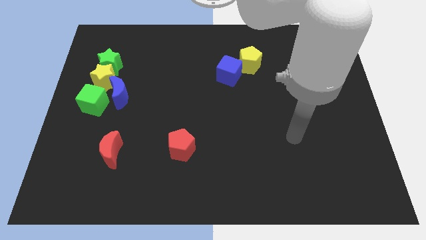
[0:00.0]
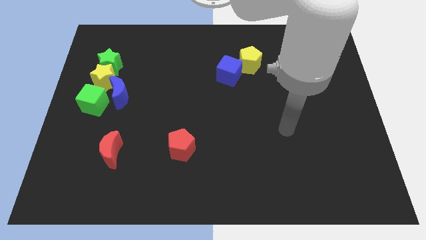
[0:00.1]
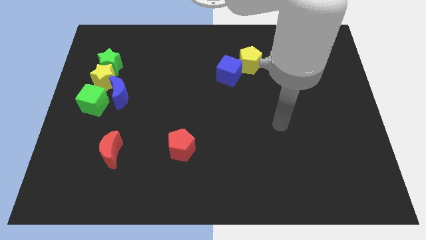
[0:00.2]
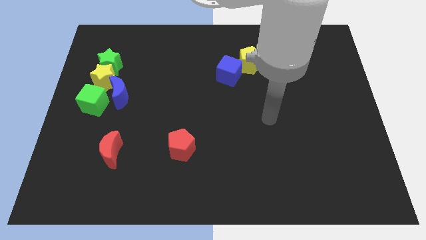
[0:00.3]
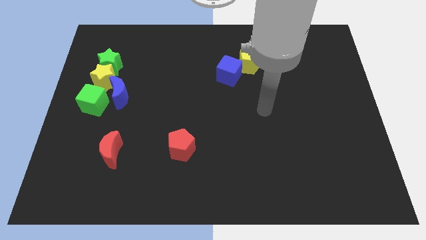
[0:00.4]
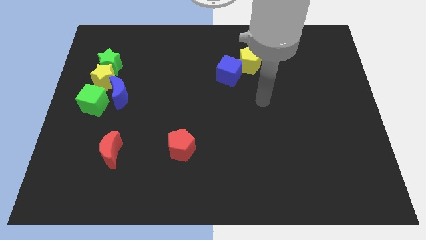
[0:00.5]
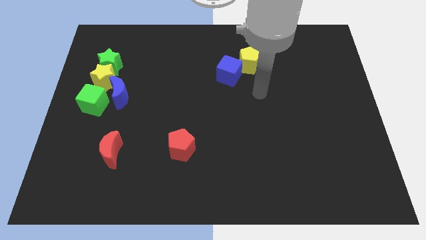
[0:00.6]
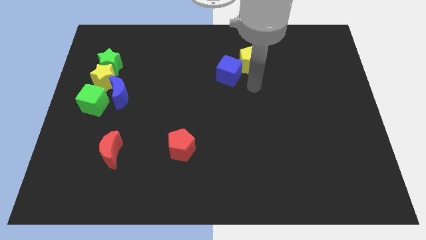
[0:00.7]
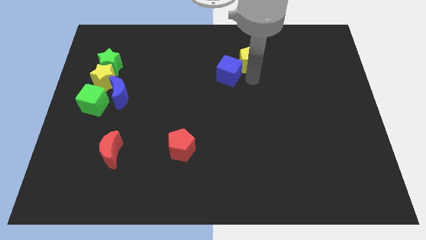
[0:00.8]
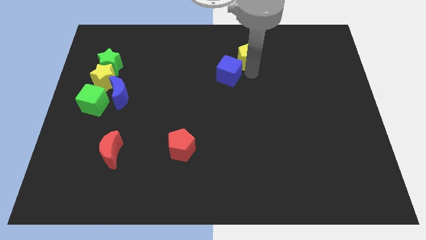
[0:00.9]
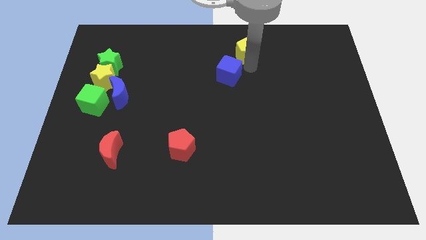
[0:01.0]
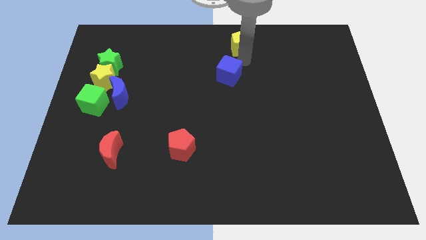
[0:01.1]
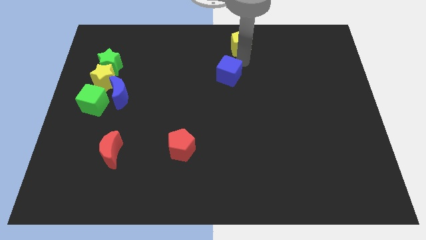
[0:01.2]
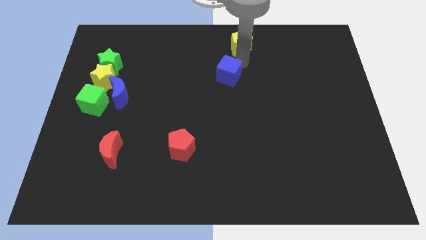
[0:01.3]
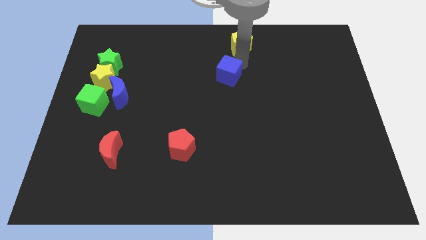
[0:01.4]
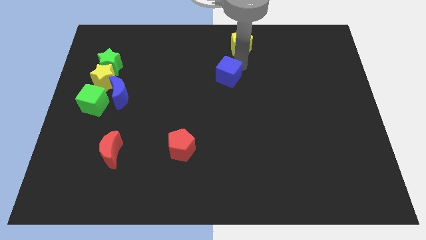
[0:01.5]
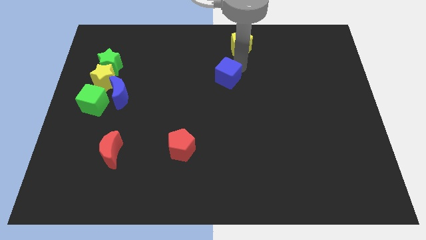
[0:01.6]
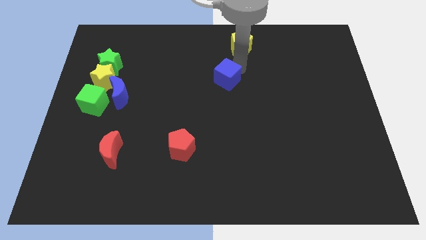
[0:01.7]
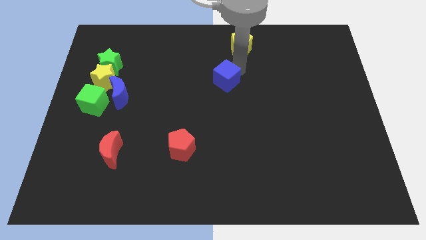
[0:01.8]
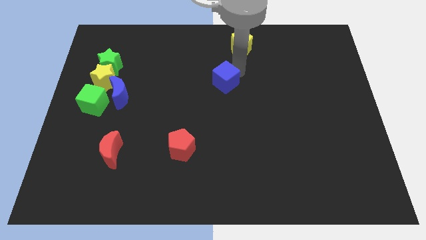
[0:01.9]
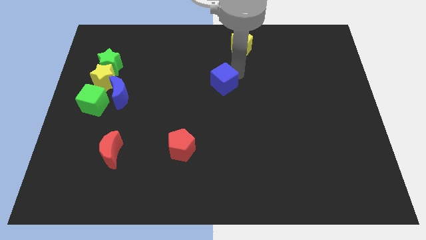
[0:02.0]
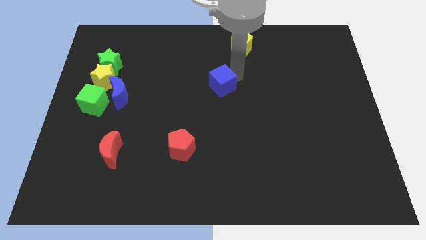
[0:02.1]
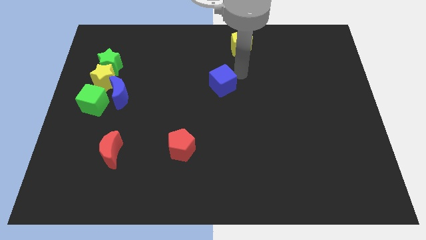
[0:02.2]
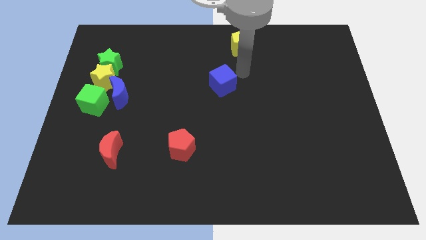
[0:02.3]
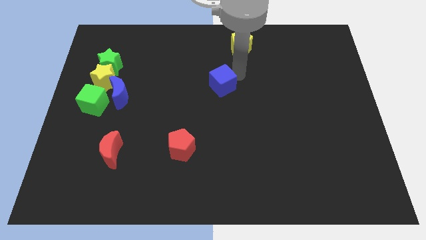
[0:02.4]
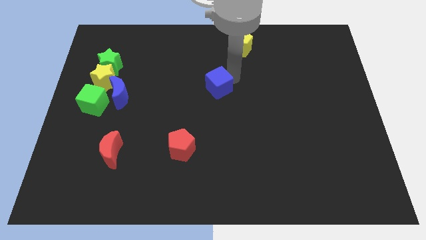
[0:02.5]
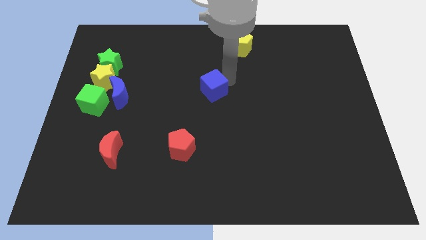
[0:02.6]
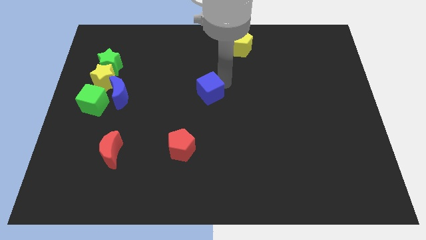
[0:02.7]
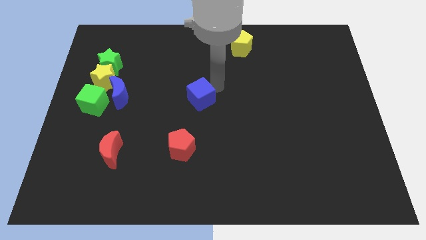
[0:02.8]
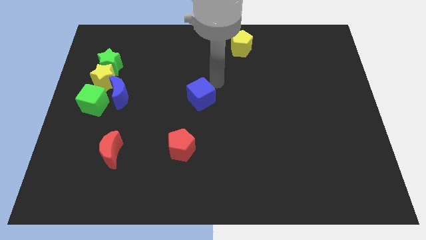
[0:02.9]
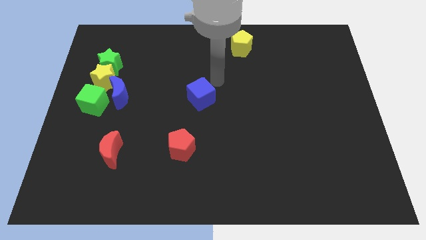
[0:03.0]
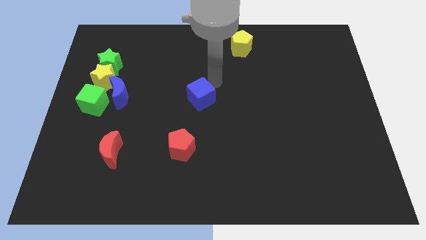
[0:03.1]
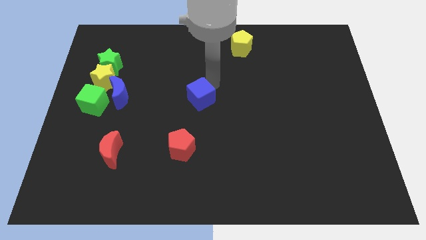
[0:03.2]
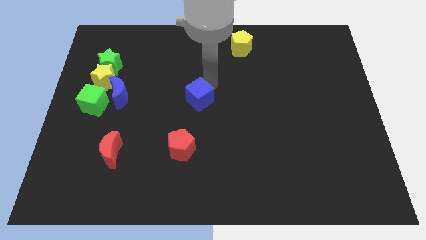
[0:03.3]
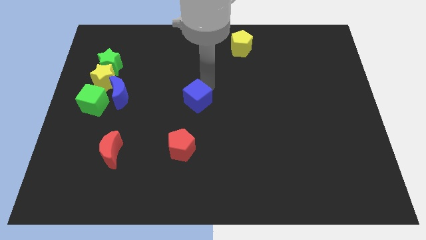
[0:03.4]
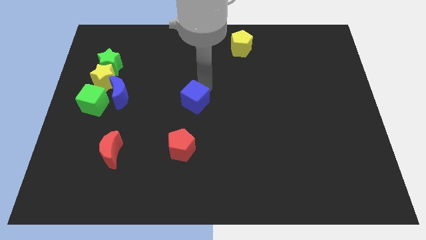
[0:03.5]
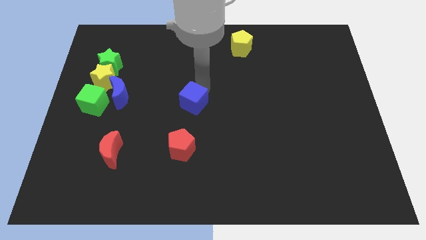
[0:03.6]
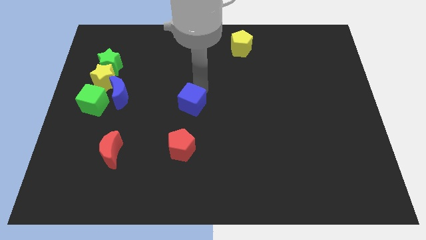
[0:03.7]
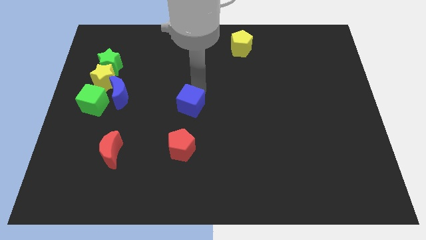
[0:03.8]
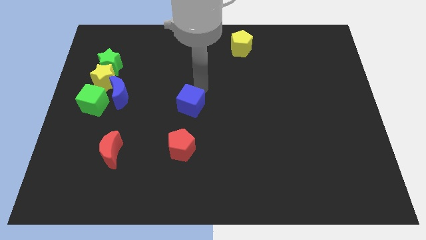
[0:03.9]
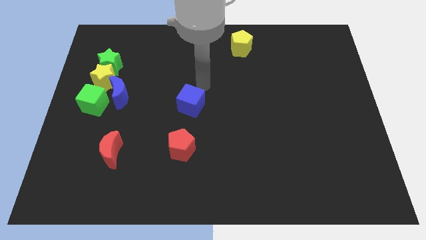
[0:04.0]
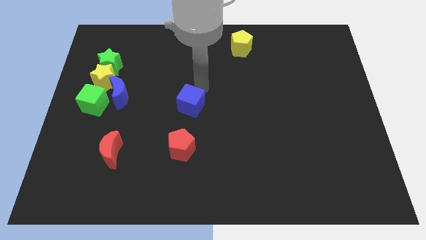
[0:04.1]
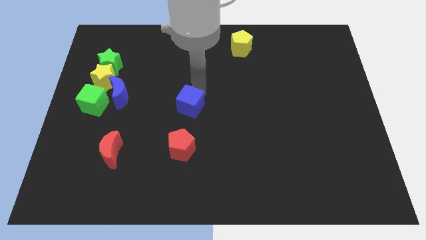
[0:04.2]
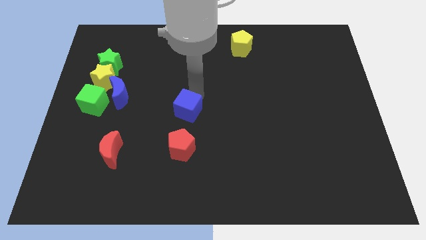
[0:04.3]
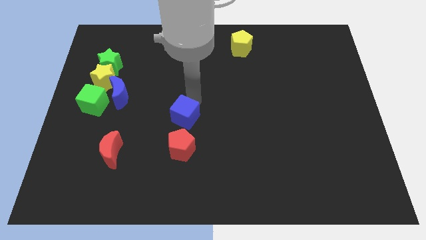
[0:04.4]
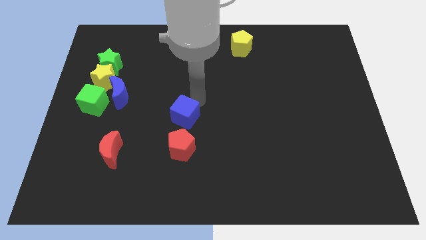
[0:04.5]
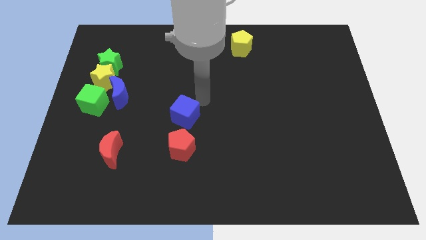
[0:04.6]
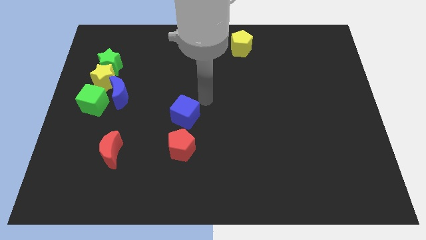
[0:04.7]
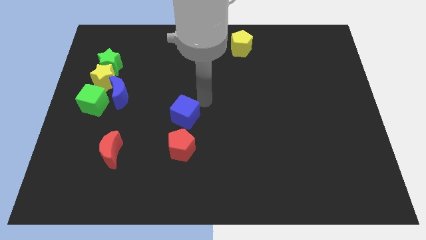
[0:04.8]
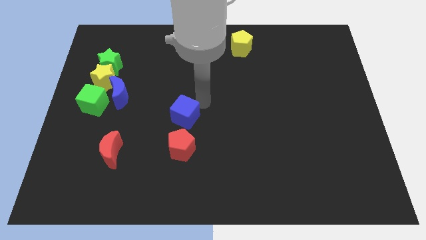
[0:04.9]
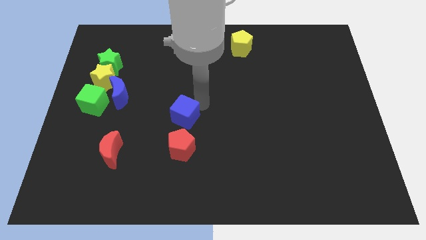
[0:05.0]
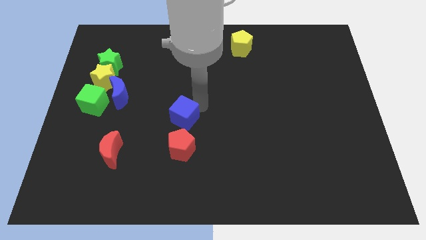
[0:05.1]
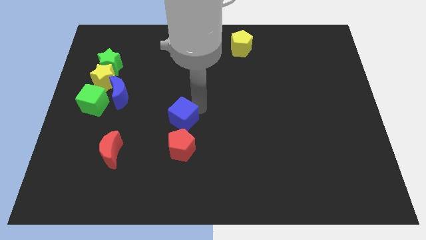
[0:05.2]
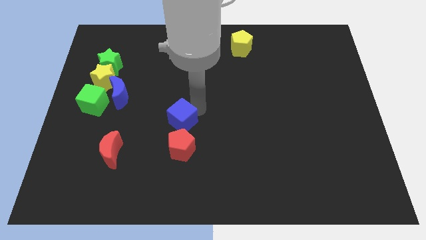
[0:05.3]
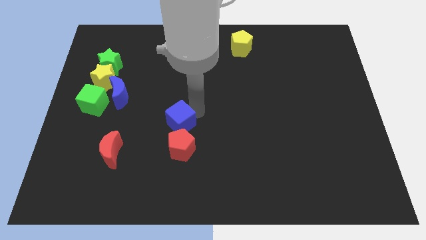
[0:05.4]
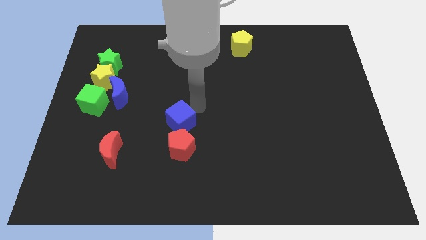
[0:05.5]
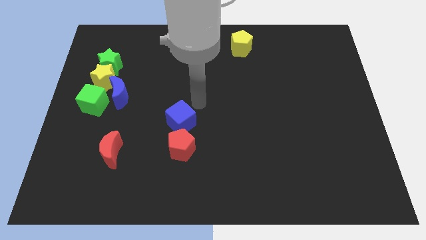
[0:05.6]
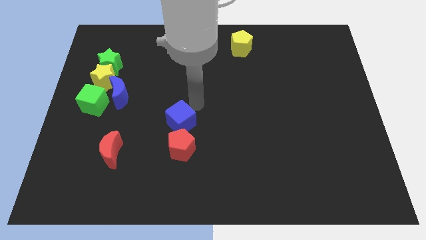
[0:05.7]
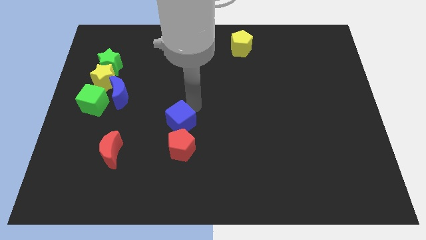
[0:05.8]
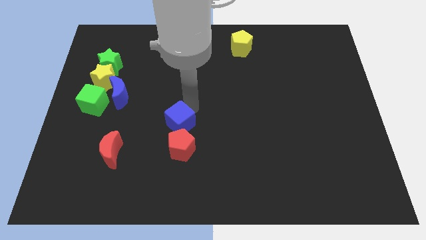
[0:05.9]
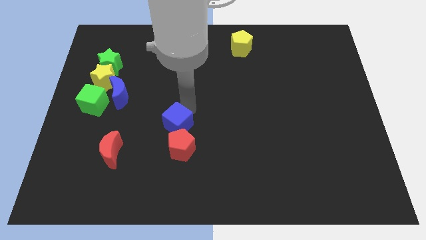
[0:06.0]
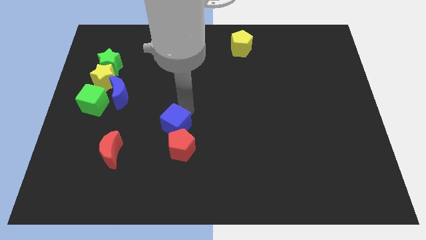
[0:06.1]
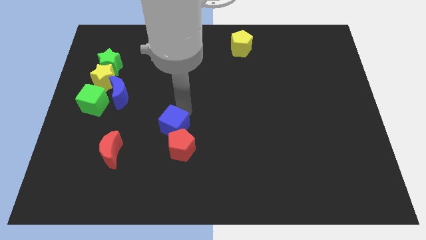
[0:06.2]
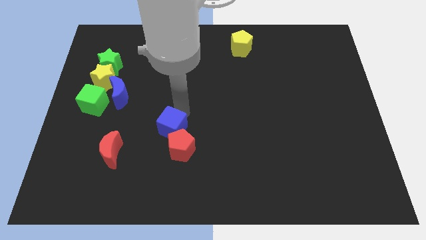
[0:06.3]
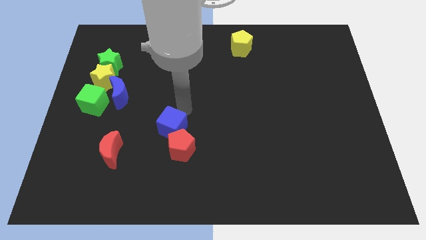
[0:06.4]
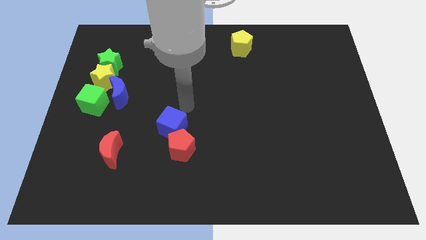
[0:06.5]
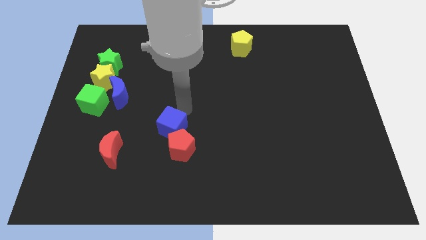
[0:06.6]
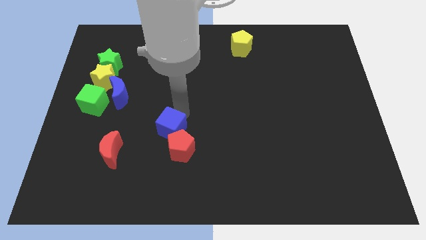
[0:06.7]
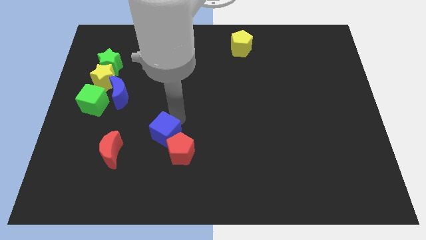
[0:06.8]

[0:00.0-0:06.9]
push the blue cube to the right side of the red moon

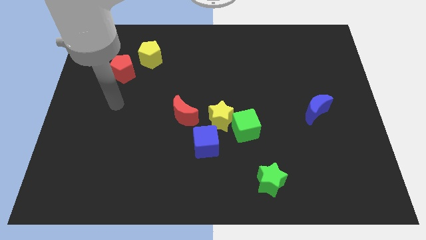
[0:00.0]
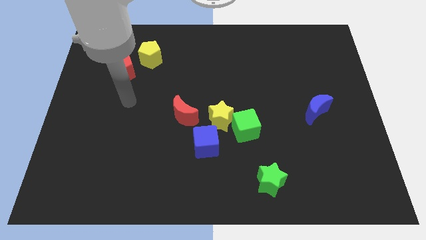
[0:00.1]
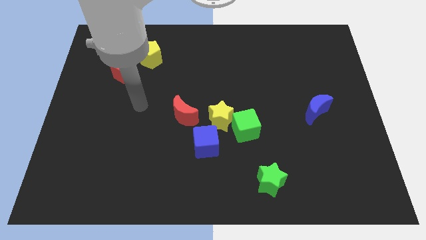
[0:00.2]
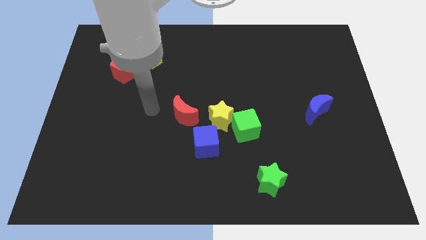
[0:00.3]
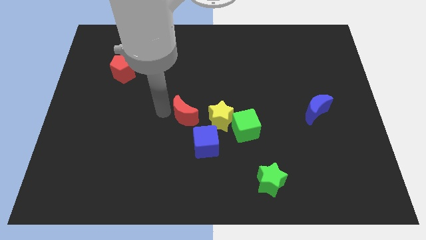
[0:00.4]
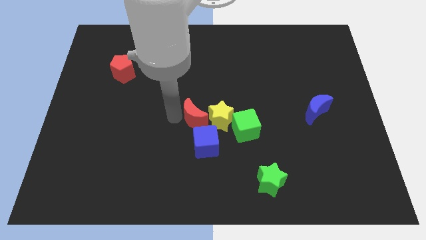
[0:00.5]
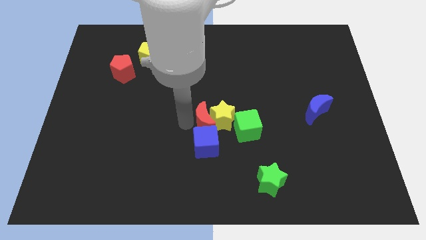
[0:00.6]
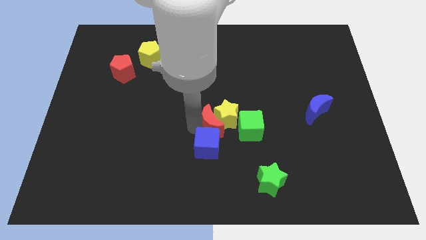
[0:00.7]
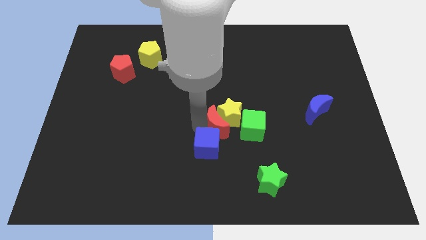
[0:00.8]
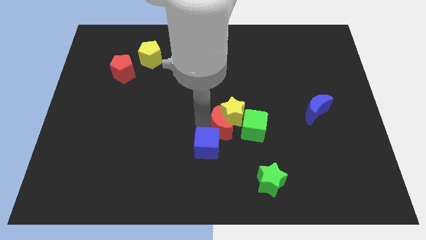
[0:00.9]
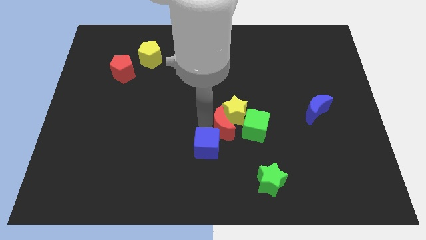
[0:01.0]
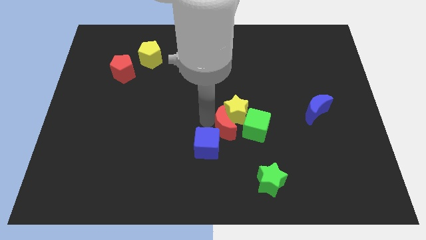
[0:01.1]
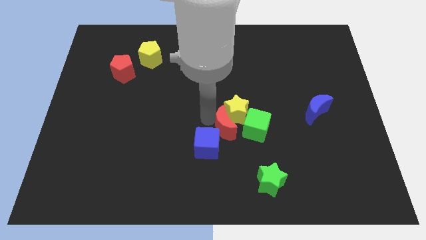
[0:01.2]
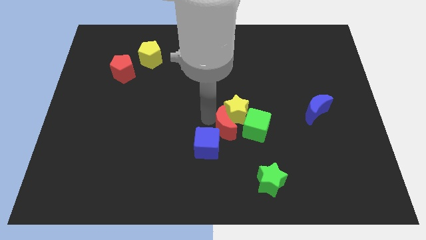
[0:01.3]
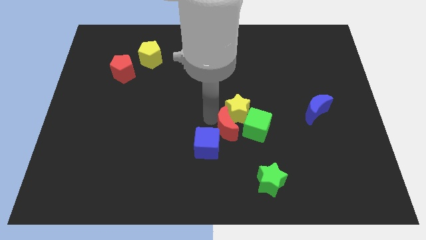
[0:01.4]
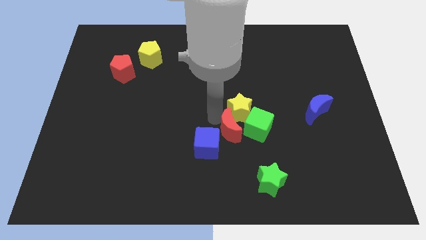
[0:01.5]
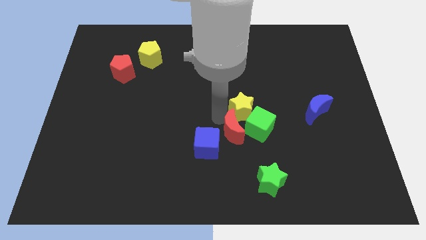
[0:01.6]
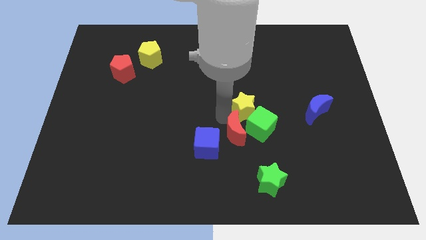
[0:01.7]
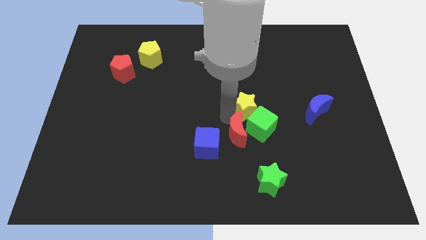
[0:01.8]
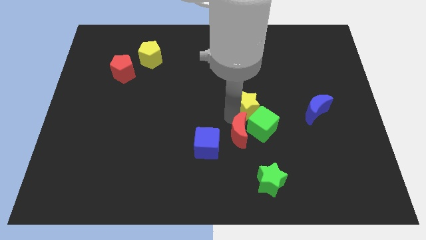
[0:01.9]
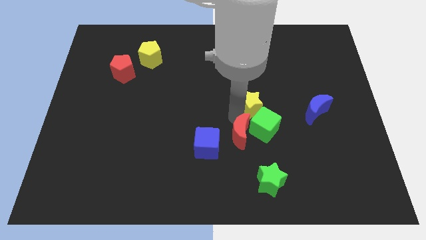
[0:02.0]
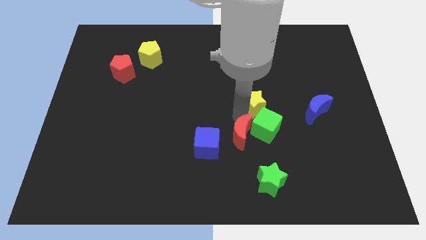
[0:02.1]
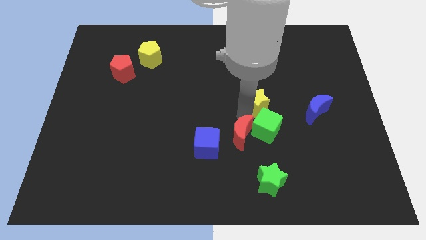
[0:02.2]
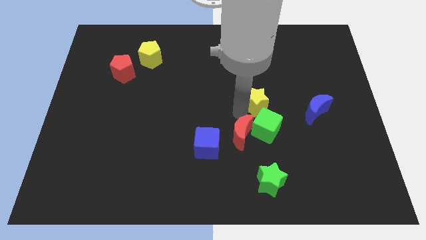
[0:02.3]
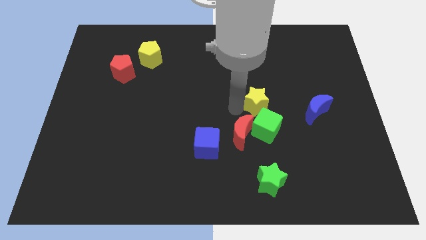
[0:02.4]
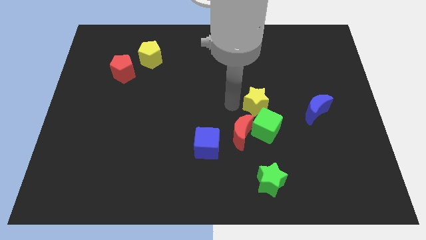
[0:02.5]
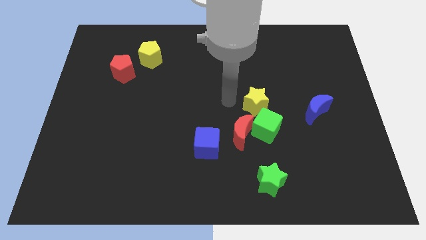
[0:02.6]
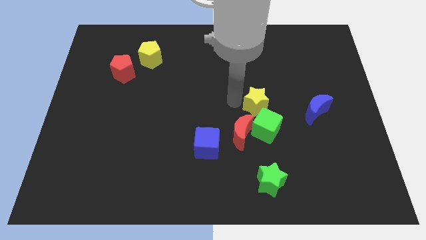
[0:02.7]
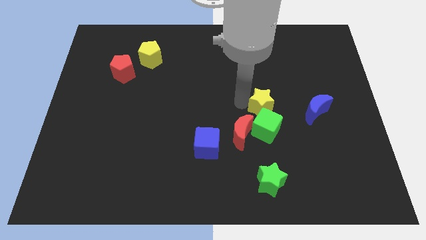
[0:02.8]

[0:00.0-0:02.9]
move the yellow star diagonally up and to the right of the green cube
